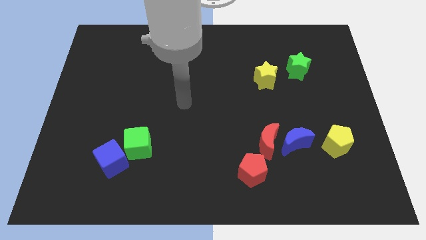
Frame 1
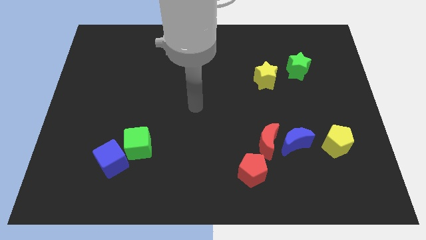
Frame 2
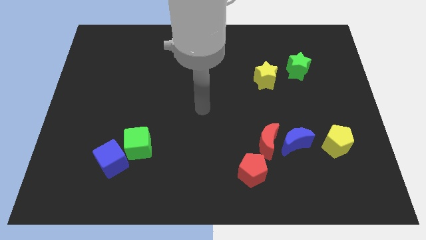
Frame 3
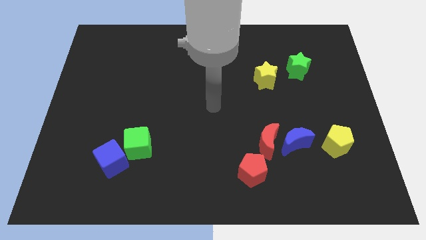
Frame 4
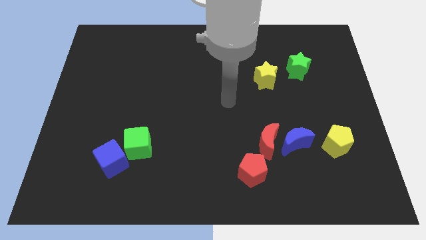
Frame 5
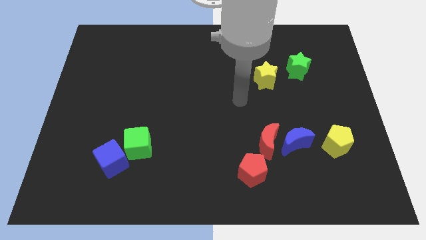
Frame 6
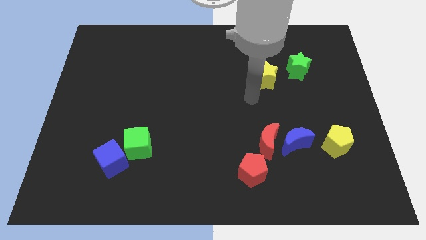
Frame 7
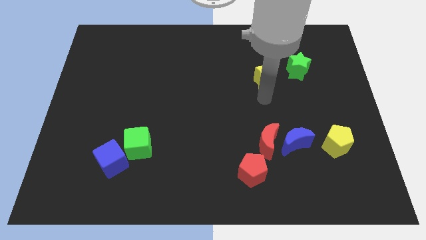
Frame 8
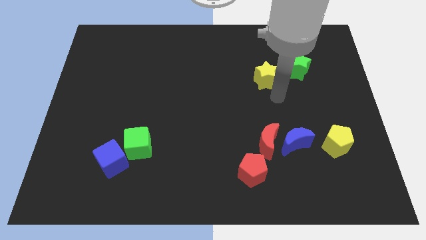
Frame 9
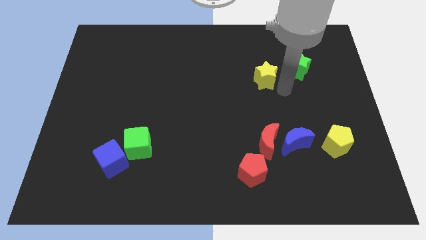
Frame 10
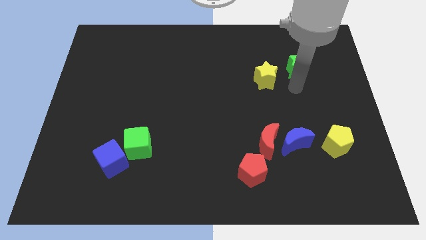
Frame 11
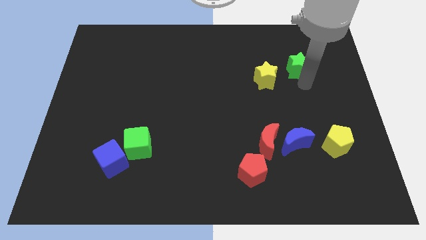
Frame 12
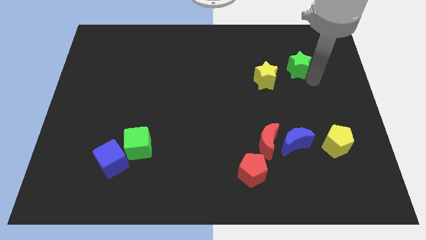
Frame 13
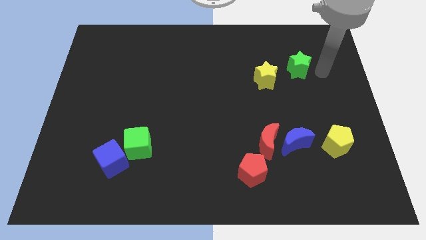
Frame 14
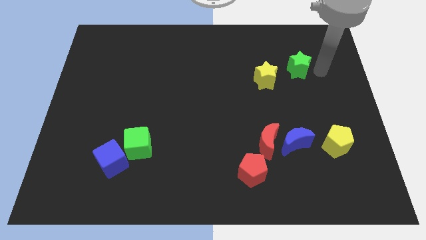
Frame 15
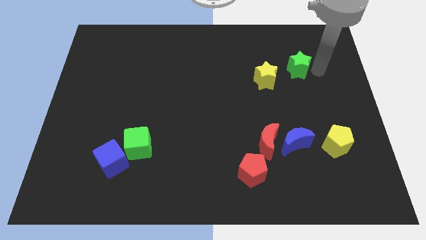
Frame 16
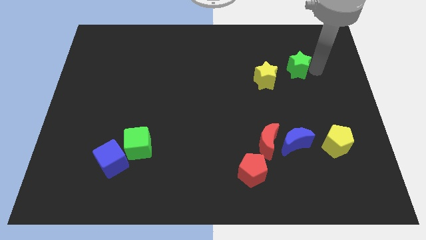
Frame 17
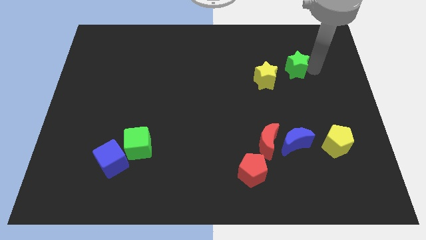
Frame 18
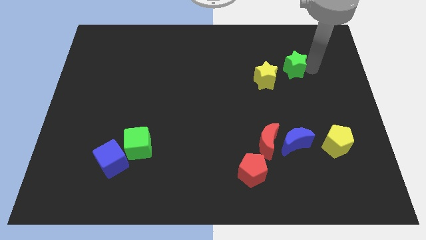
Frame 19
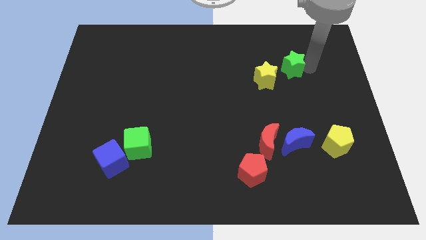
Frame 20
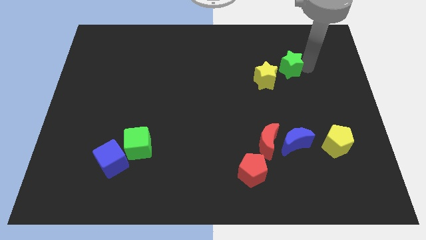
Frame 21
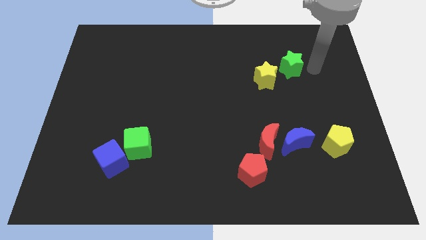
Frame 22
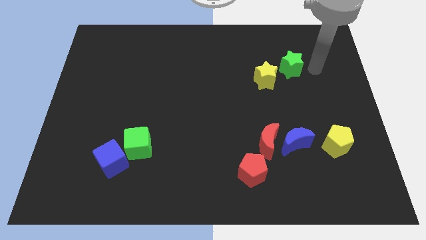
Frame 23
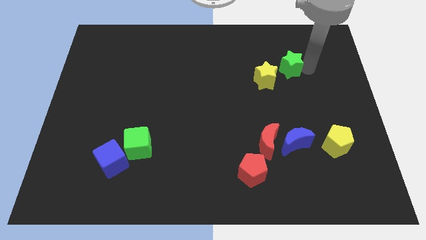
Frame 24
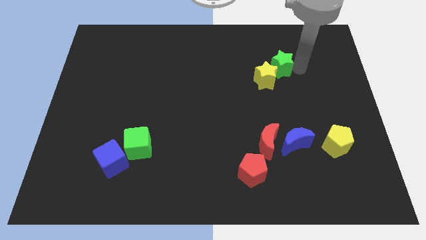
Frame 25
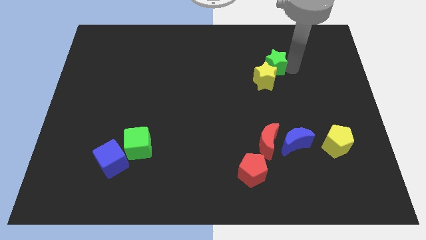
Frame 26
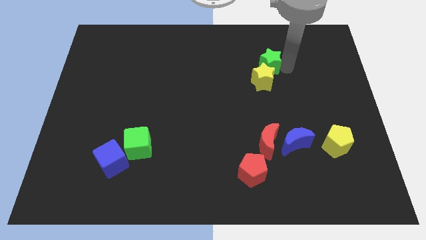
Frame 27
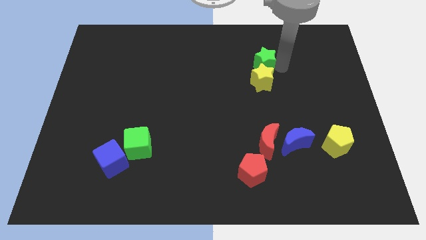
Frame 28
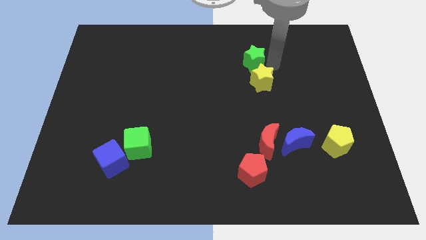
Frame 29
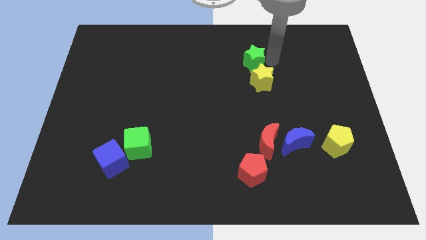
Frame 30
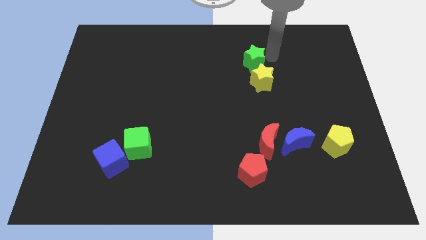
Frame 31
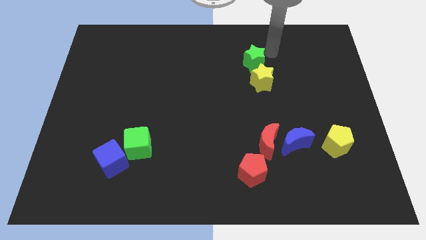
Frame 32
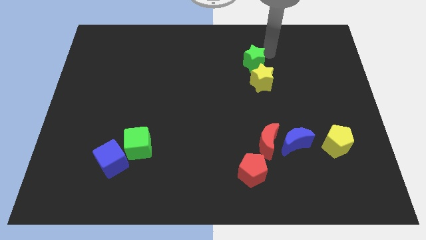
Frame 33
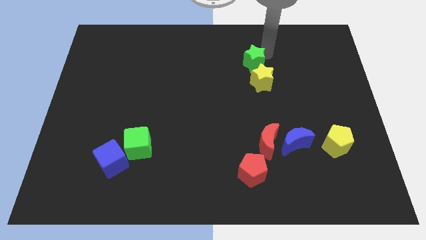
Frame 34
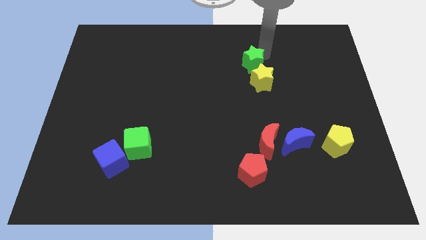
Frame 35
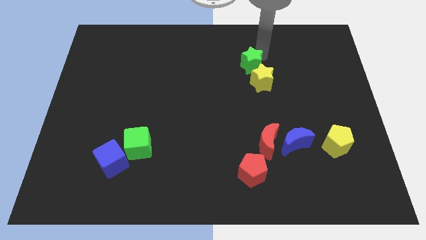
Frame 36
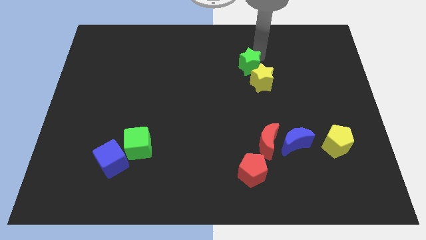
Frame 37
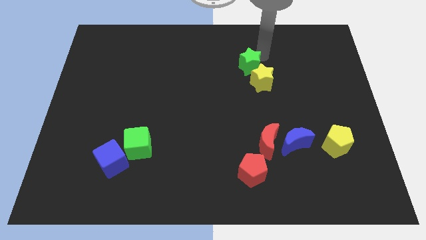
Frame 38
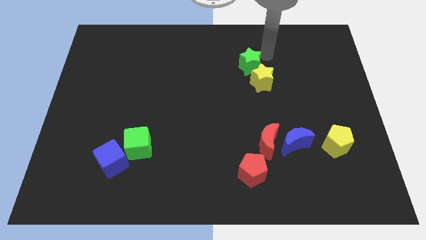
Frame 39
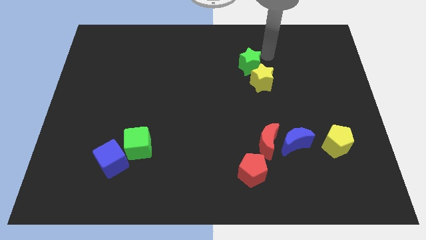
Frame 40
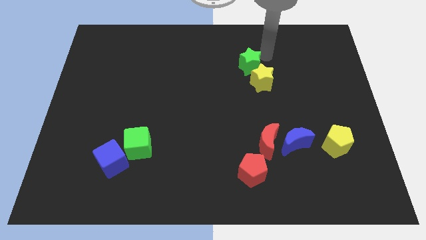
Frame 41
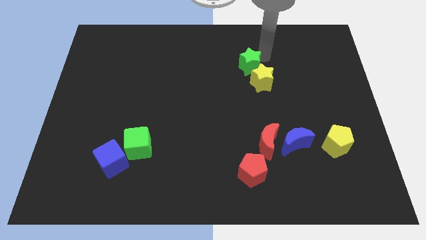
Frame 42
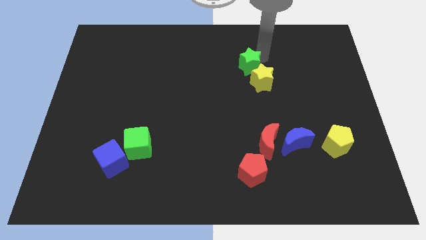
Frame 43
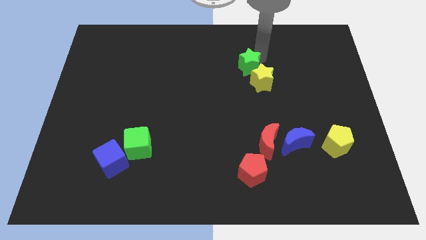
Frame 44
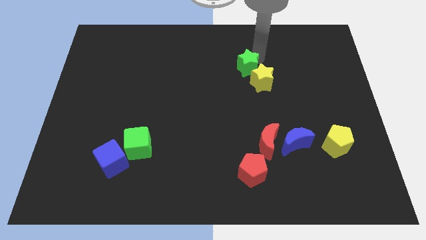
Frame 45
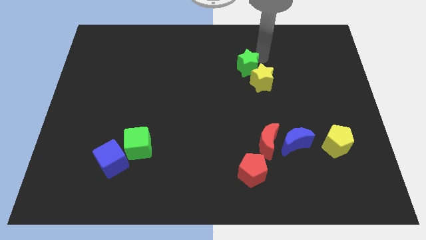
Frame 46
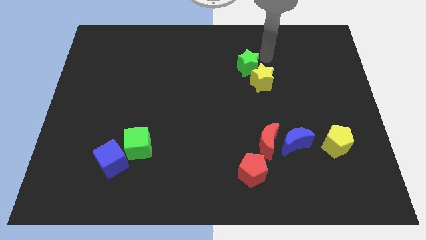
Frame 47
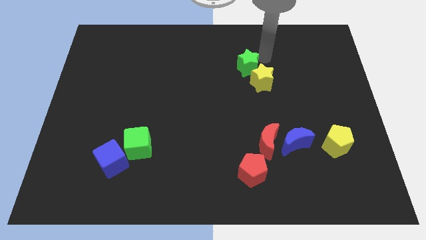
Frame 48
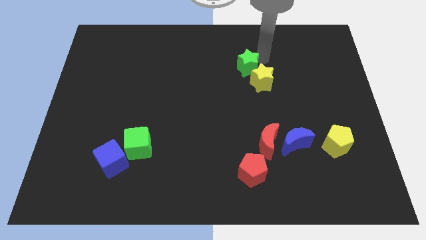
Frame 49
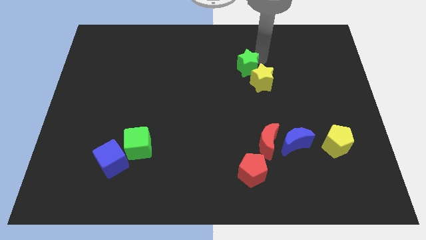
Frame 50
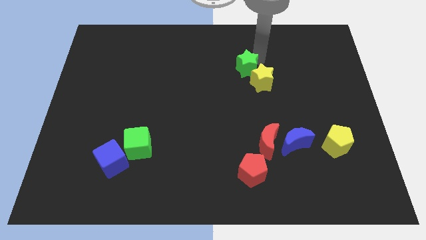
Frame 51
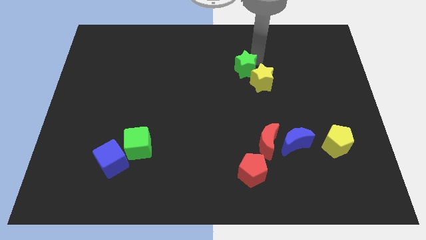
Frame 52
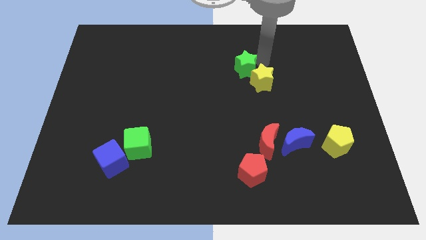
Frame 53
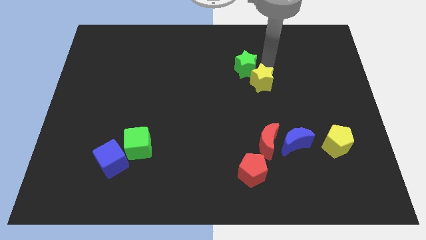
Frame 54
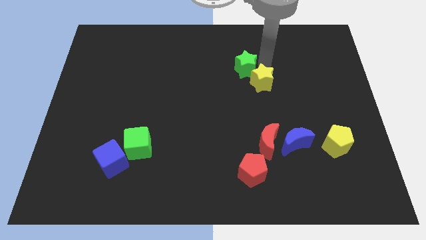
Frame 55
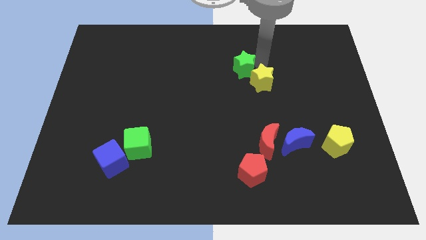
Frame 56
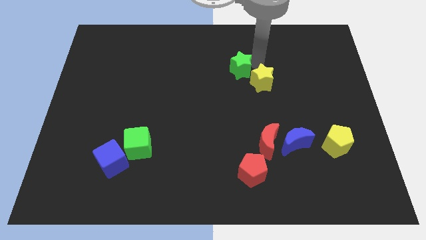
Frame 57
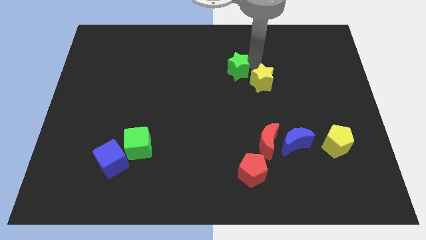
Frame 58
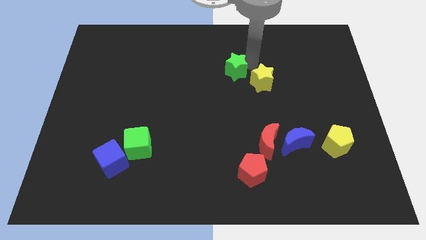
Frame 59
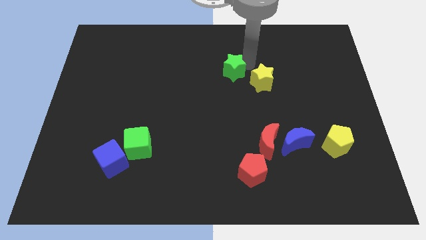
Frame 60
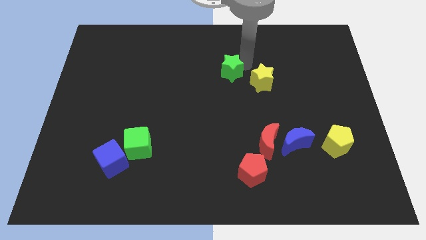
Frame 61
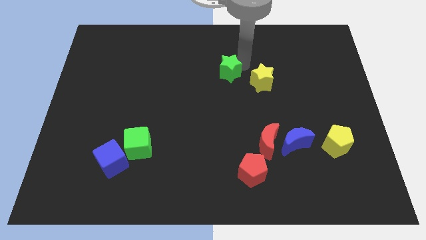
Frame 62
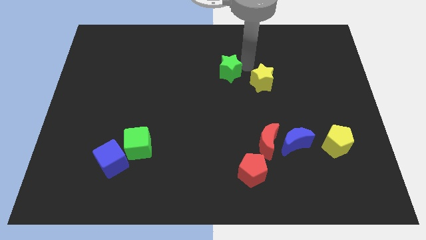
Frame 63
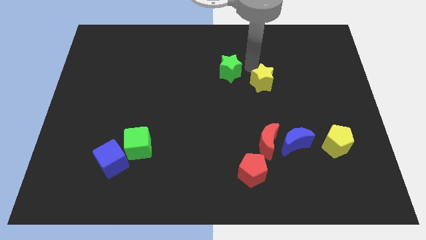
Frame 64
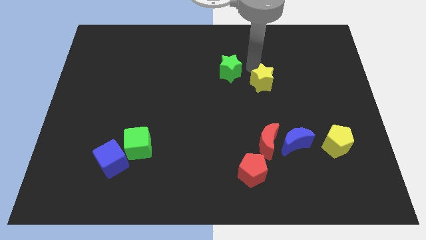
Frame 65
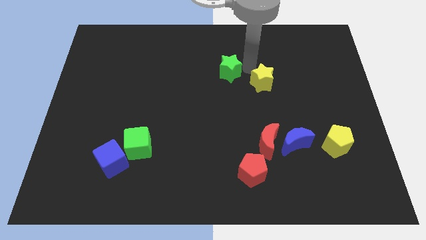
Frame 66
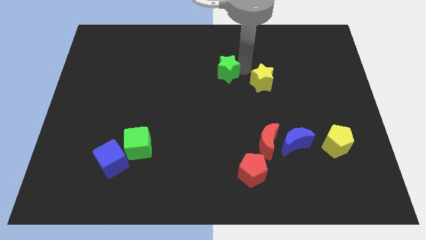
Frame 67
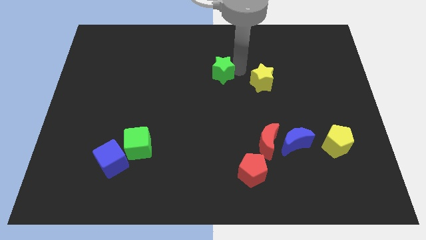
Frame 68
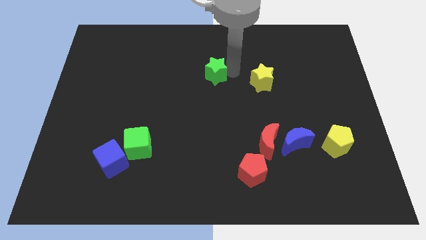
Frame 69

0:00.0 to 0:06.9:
slide the green star left

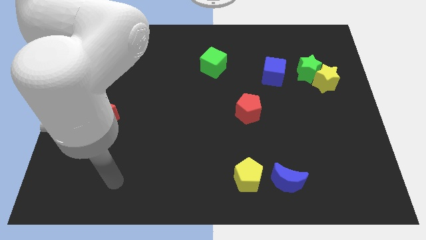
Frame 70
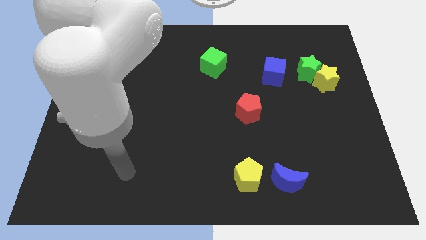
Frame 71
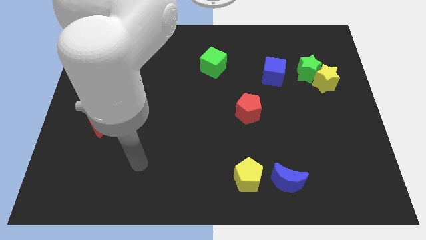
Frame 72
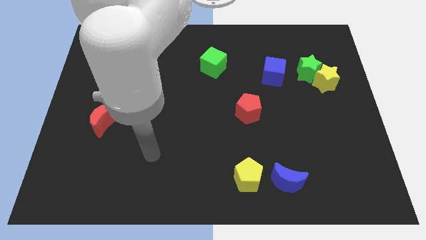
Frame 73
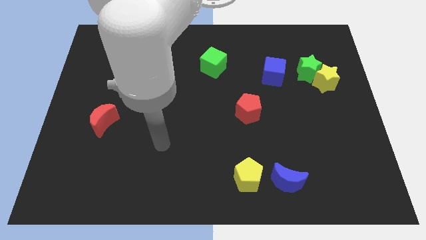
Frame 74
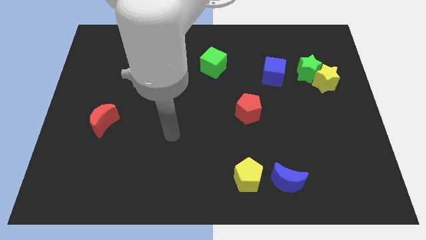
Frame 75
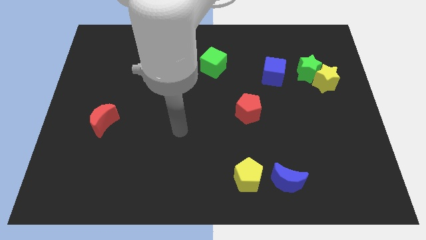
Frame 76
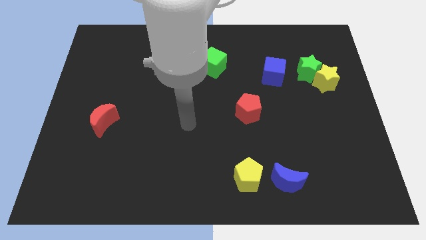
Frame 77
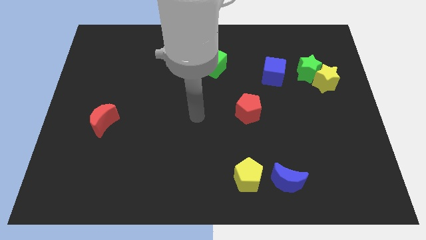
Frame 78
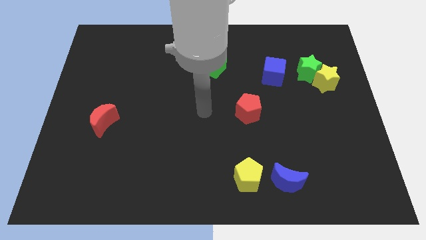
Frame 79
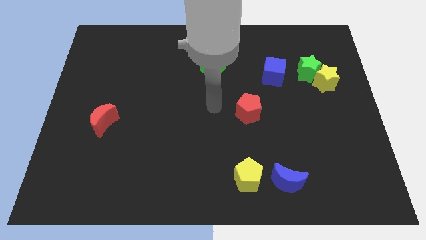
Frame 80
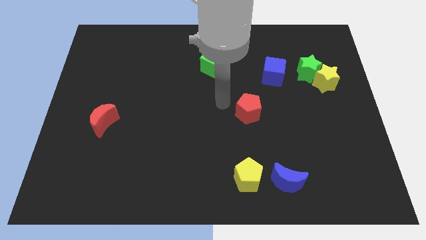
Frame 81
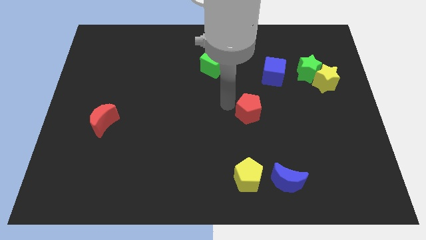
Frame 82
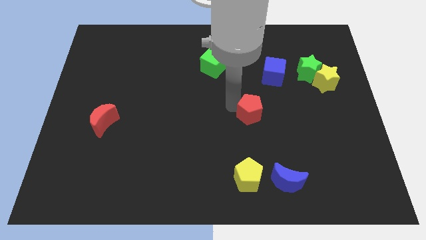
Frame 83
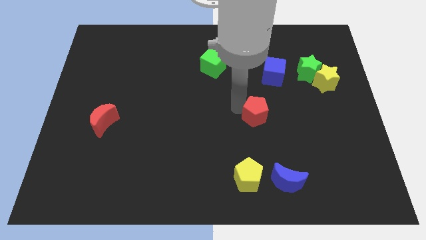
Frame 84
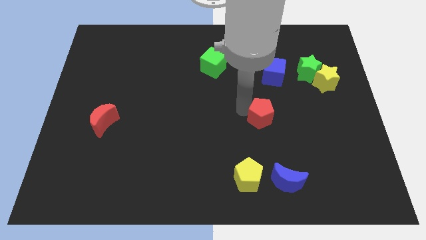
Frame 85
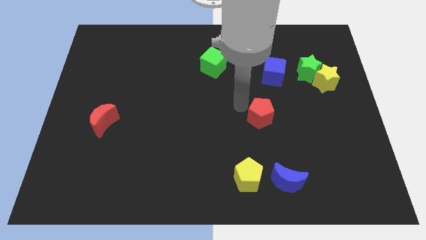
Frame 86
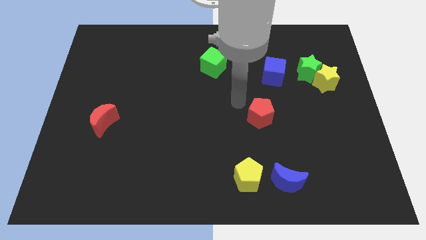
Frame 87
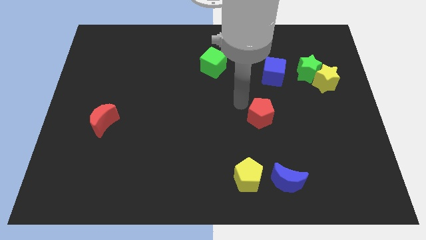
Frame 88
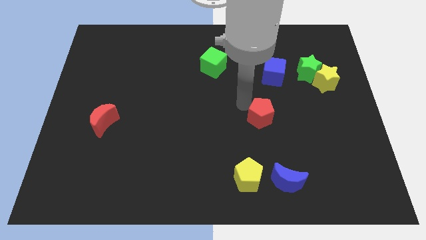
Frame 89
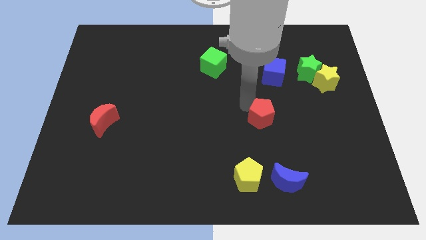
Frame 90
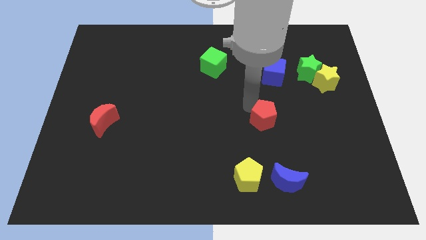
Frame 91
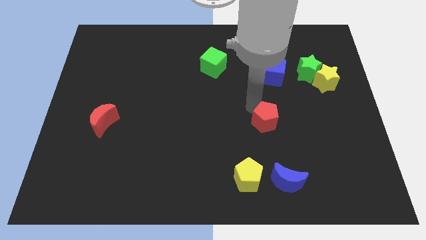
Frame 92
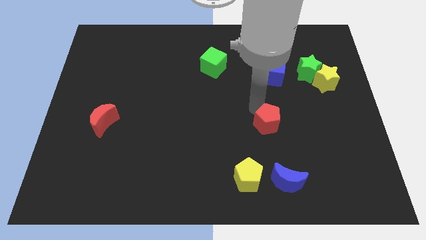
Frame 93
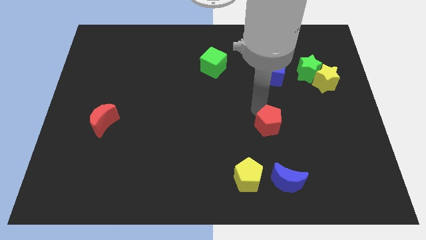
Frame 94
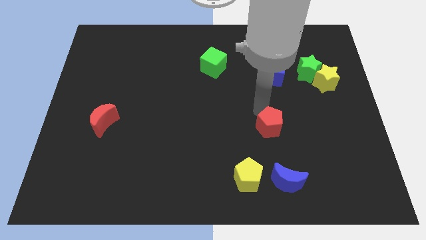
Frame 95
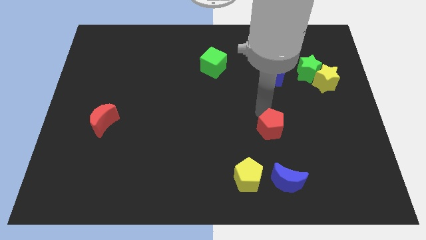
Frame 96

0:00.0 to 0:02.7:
push the red pentagon down and to the right somewhat
